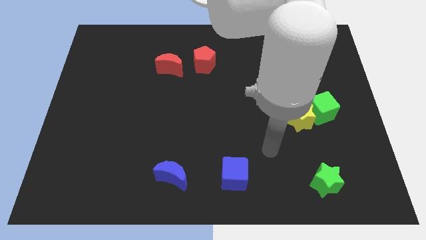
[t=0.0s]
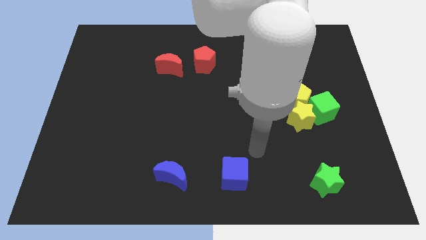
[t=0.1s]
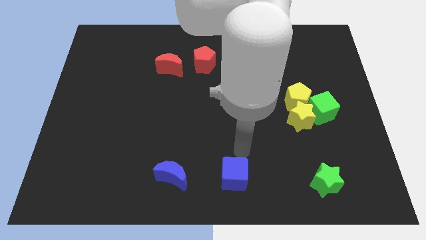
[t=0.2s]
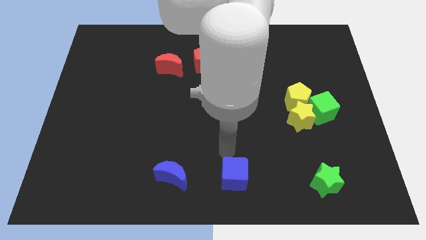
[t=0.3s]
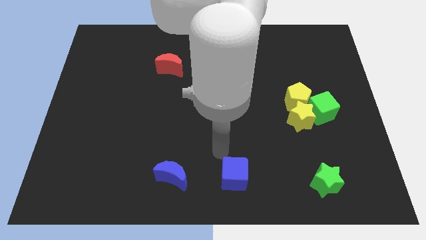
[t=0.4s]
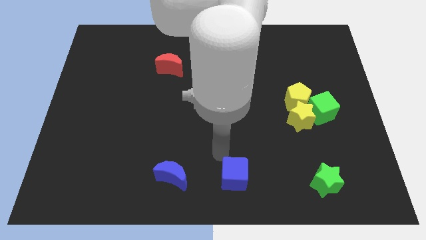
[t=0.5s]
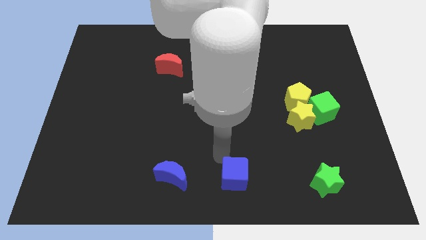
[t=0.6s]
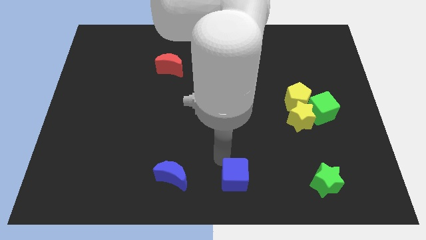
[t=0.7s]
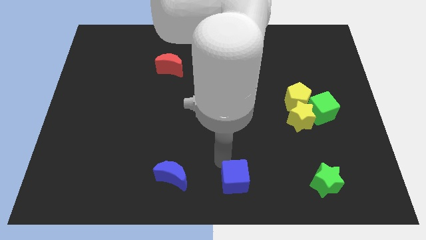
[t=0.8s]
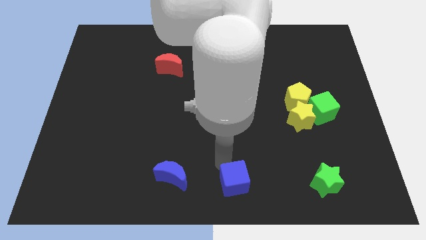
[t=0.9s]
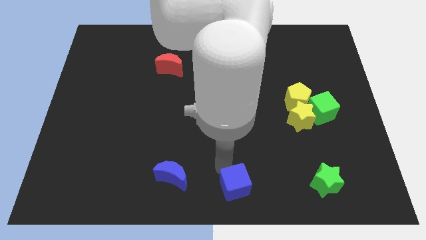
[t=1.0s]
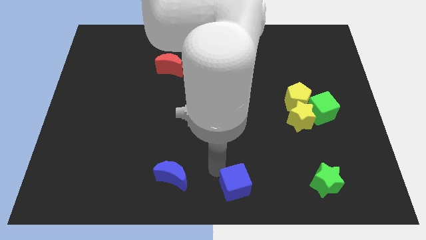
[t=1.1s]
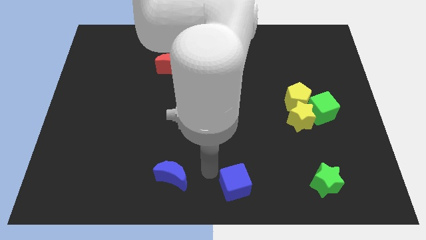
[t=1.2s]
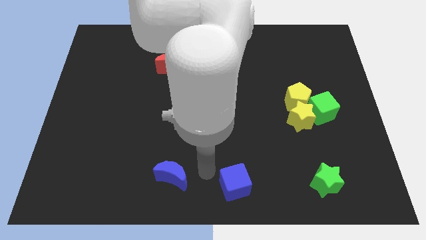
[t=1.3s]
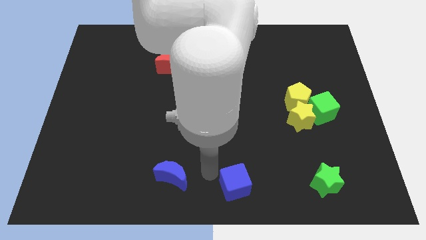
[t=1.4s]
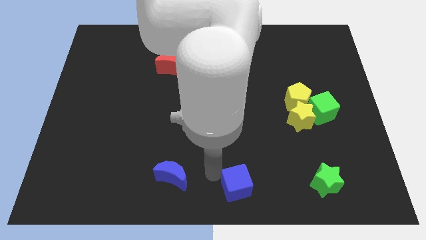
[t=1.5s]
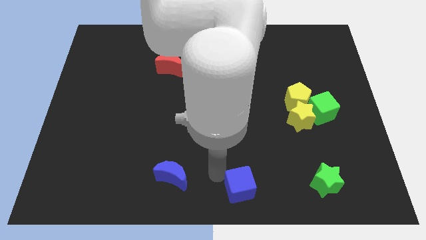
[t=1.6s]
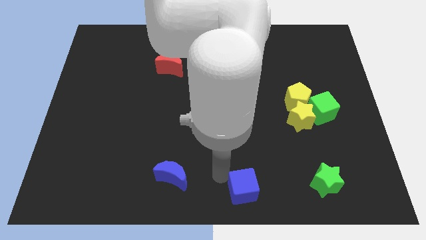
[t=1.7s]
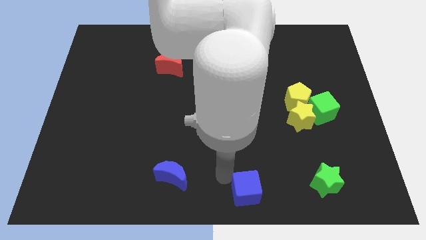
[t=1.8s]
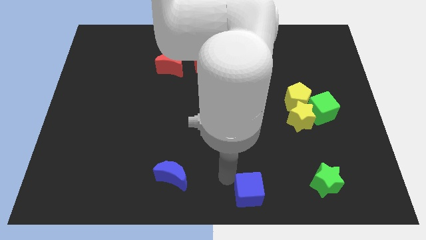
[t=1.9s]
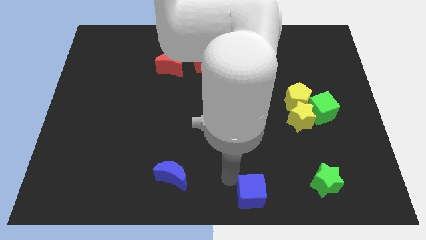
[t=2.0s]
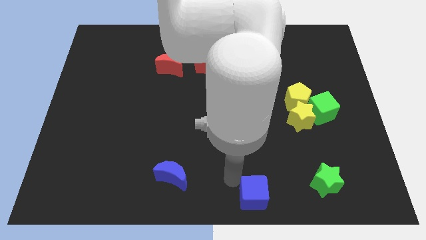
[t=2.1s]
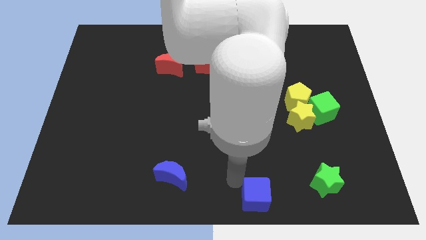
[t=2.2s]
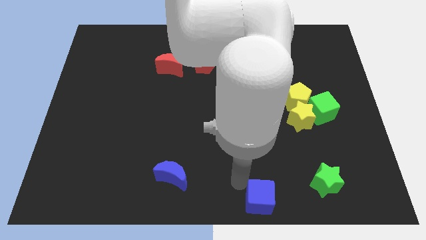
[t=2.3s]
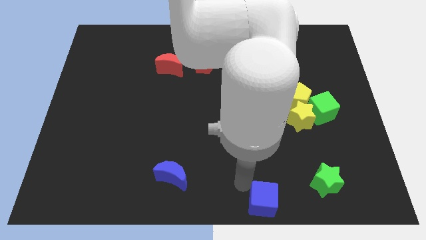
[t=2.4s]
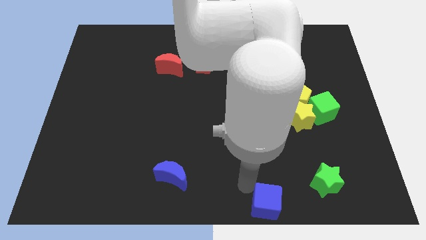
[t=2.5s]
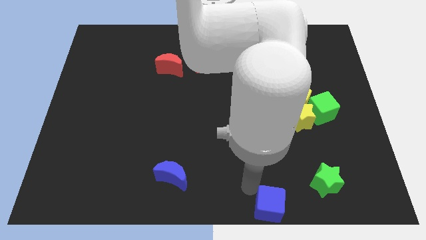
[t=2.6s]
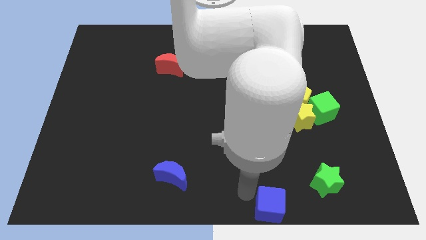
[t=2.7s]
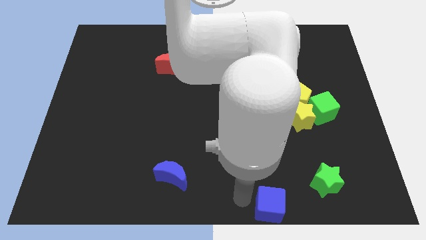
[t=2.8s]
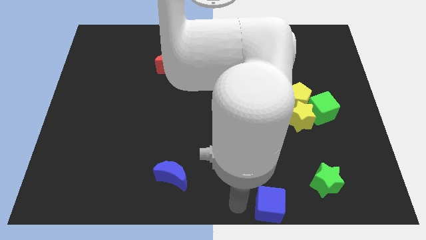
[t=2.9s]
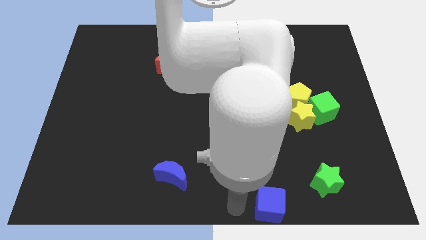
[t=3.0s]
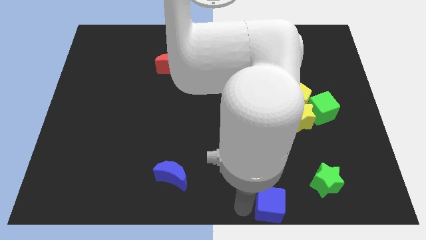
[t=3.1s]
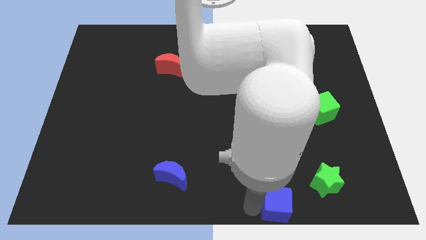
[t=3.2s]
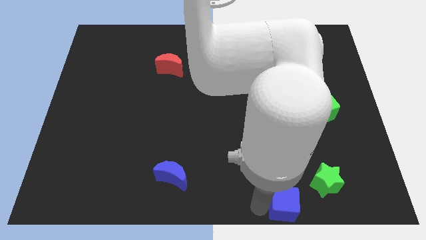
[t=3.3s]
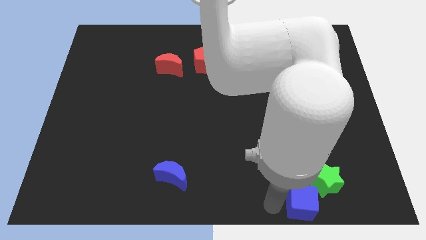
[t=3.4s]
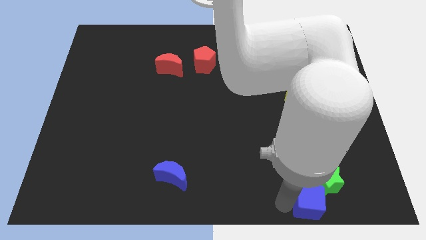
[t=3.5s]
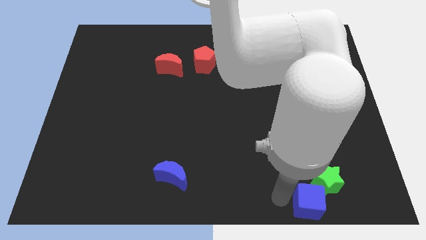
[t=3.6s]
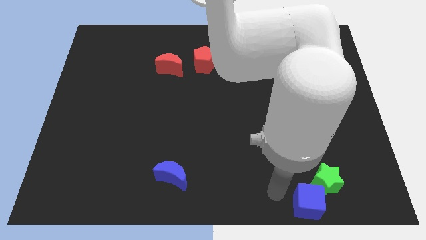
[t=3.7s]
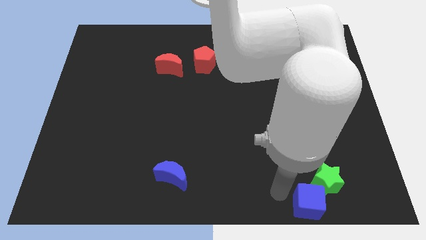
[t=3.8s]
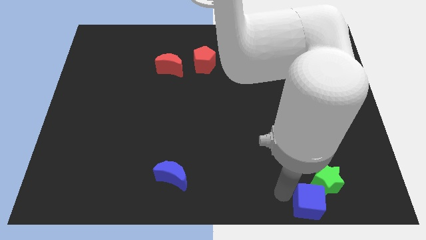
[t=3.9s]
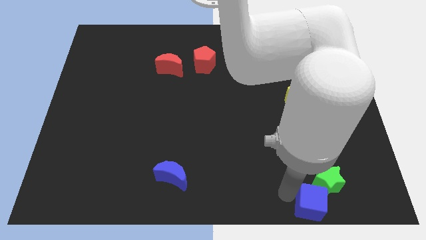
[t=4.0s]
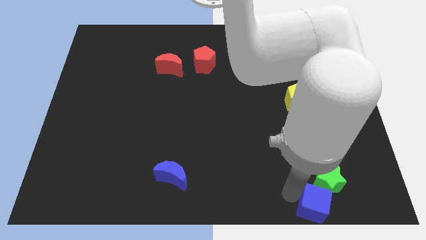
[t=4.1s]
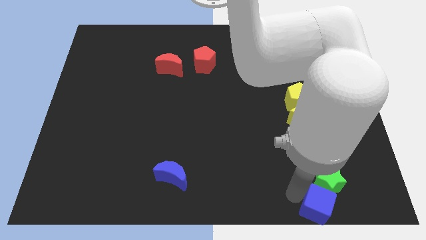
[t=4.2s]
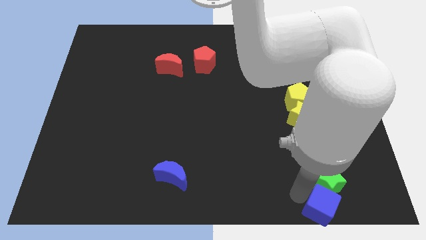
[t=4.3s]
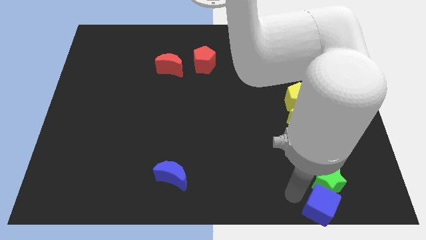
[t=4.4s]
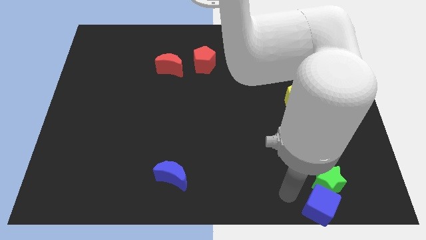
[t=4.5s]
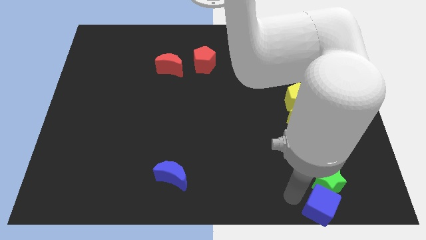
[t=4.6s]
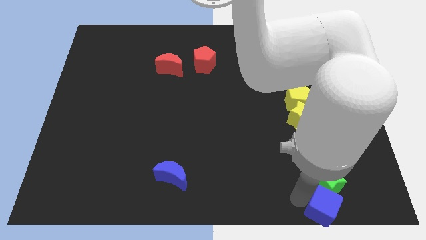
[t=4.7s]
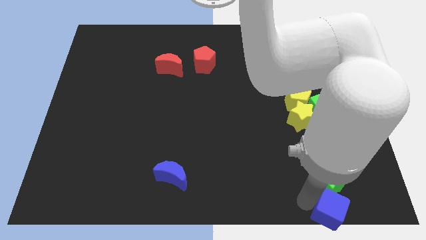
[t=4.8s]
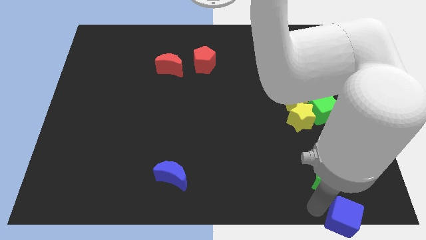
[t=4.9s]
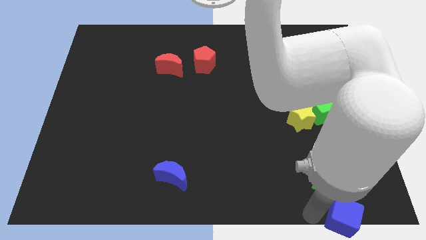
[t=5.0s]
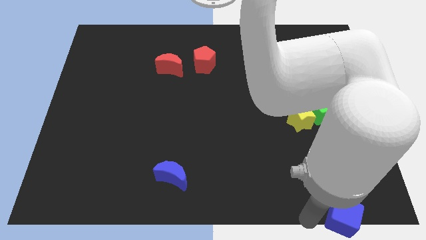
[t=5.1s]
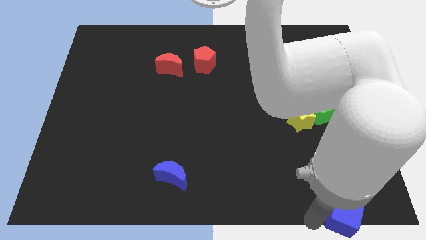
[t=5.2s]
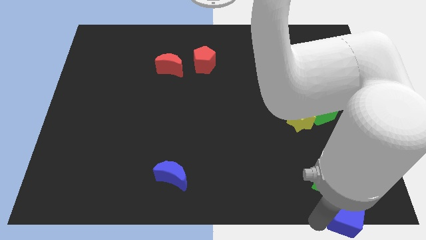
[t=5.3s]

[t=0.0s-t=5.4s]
slide the blue cube to the lower right corner

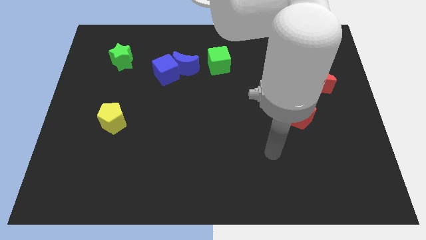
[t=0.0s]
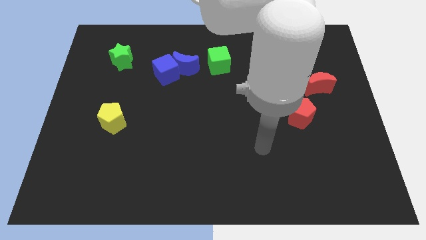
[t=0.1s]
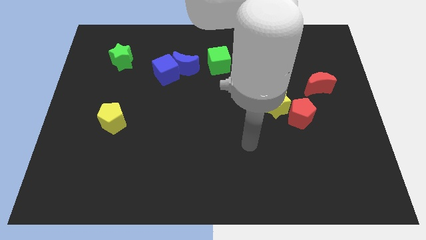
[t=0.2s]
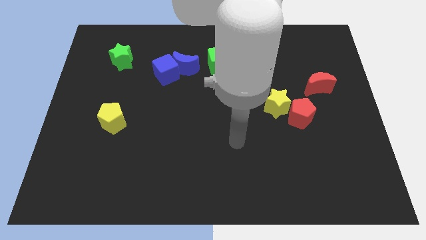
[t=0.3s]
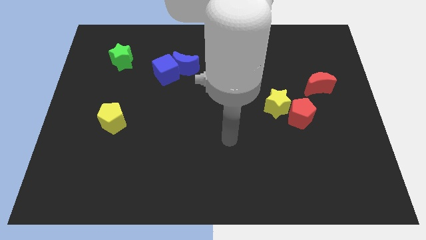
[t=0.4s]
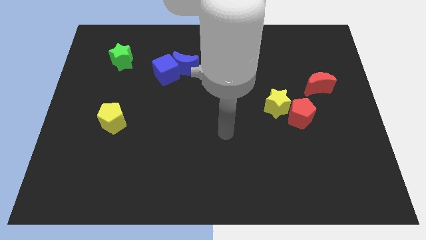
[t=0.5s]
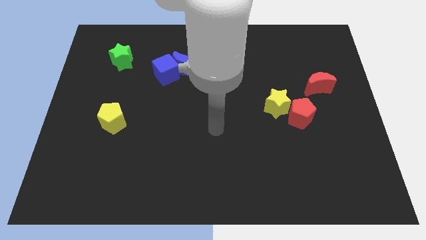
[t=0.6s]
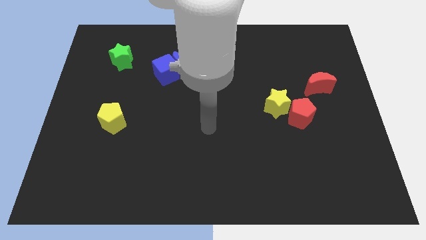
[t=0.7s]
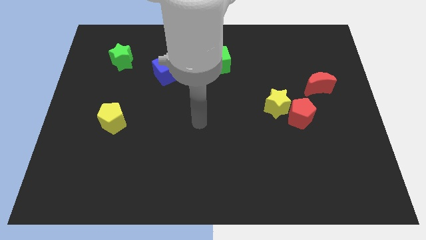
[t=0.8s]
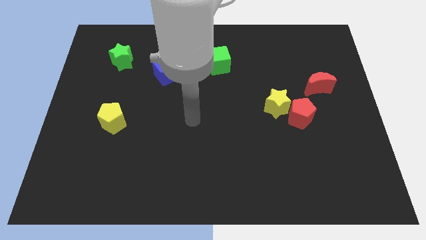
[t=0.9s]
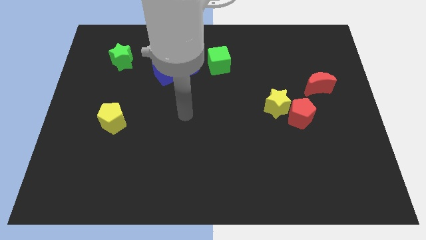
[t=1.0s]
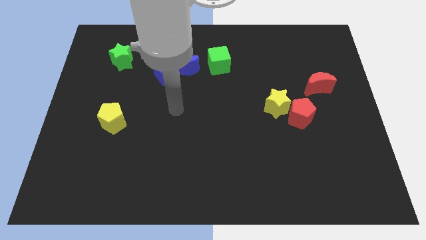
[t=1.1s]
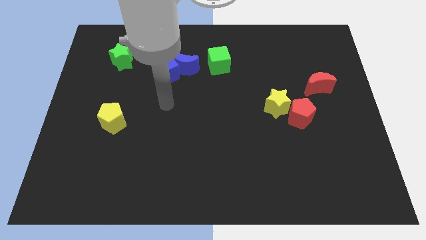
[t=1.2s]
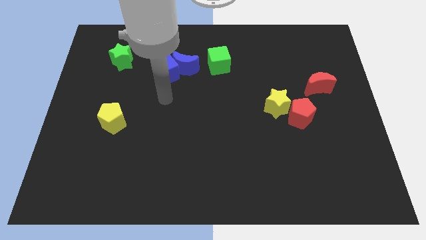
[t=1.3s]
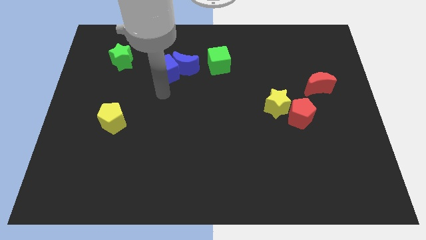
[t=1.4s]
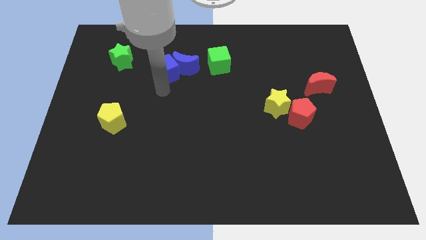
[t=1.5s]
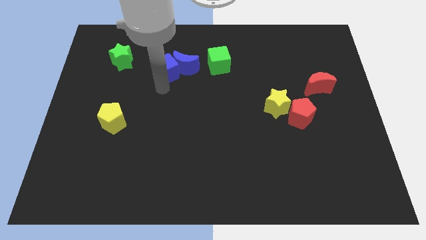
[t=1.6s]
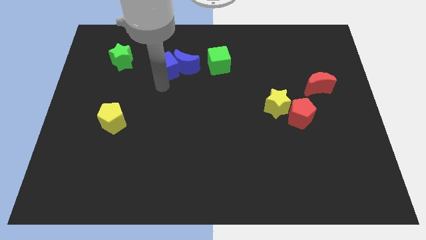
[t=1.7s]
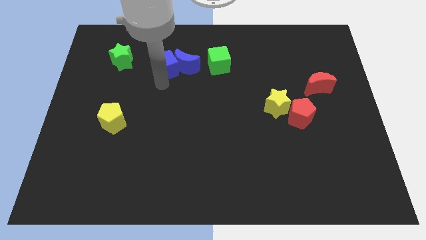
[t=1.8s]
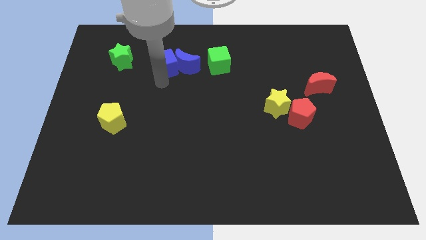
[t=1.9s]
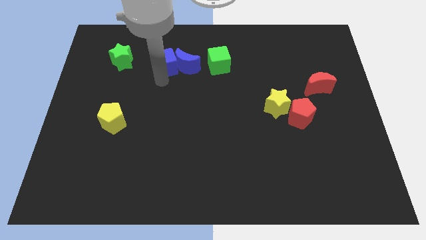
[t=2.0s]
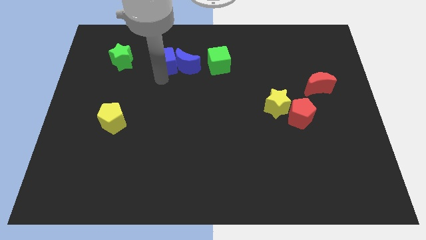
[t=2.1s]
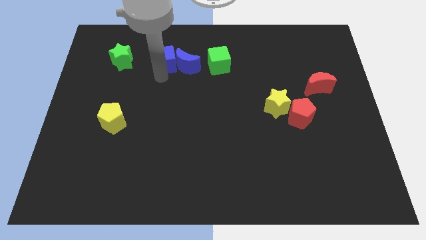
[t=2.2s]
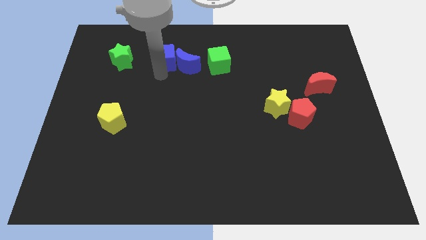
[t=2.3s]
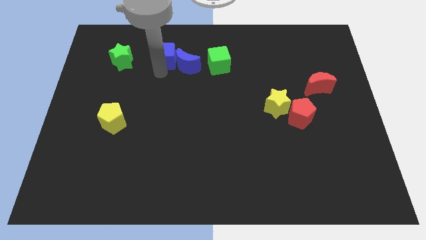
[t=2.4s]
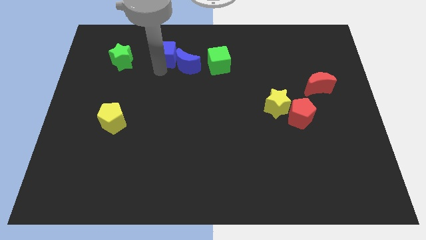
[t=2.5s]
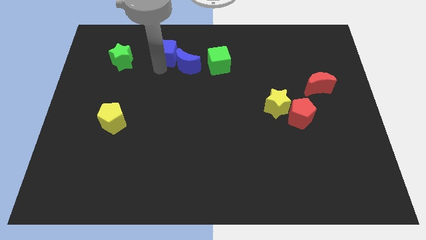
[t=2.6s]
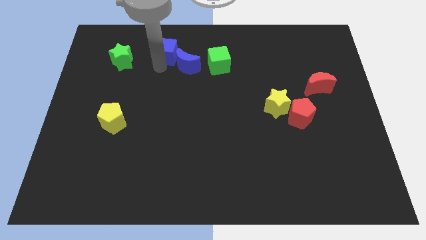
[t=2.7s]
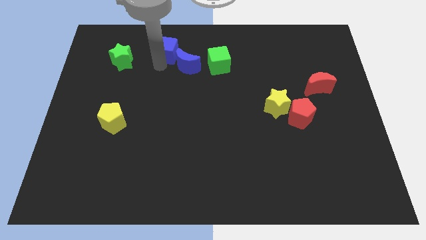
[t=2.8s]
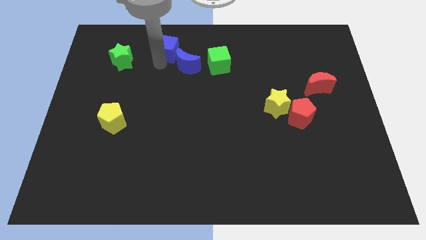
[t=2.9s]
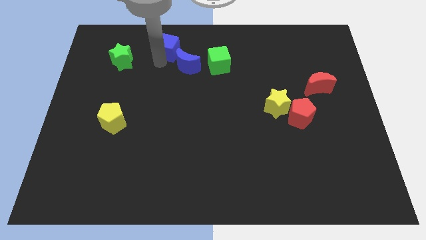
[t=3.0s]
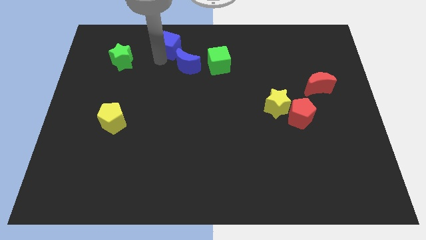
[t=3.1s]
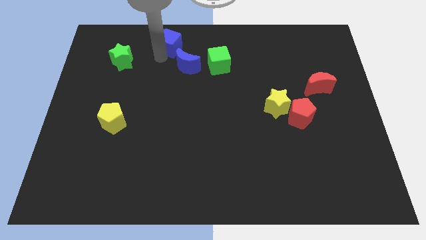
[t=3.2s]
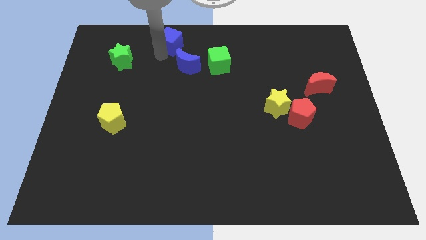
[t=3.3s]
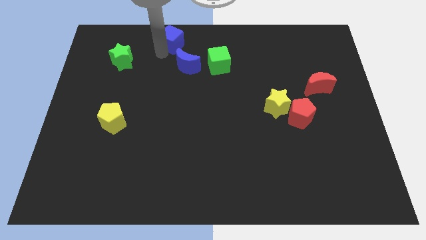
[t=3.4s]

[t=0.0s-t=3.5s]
move the blue cube to the top
